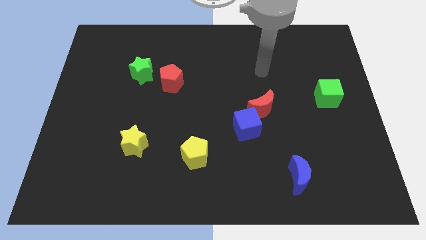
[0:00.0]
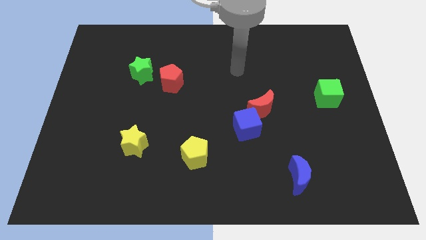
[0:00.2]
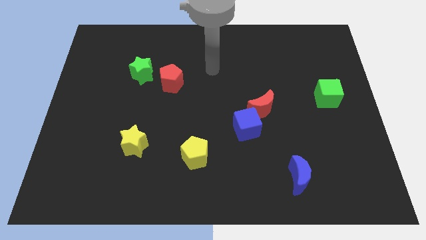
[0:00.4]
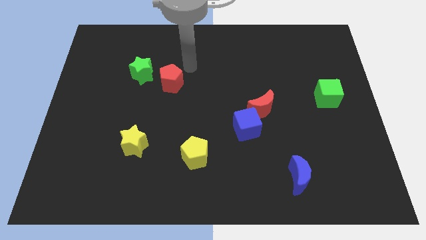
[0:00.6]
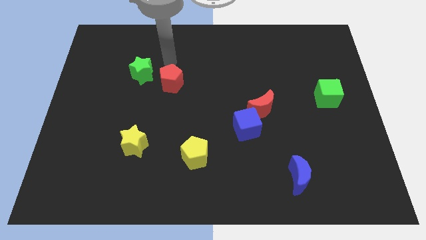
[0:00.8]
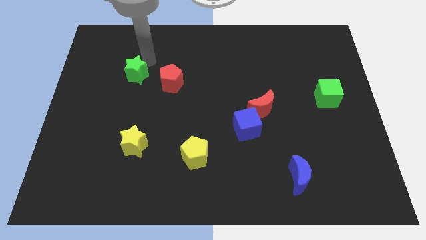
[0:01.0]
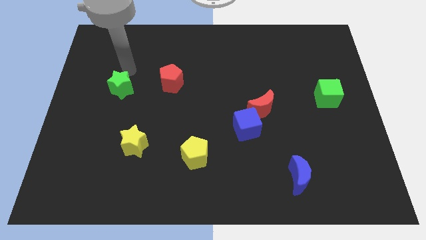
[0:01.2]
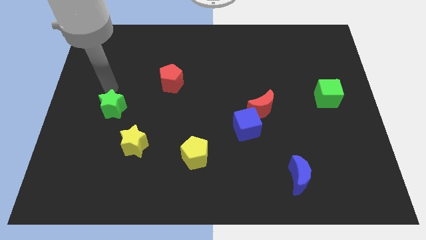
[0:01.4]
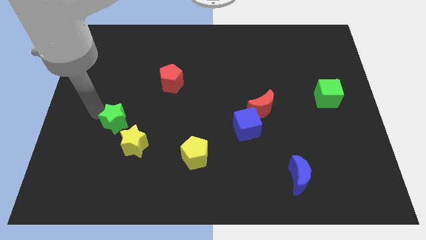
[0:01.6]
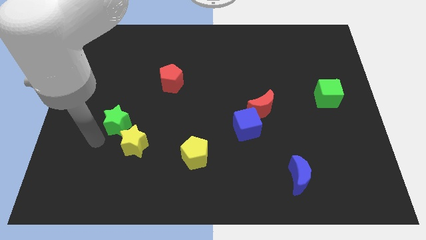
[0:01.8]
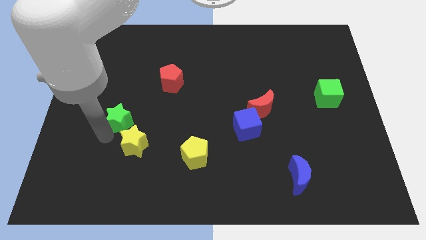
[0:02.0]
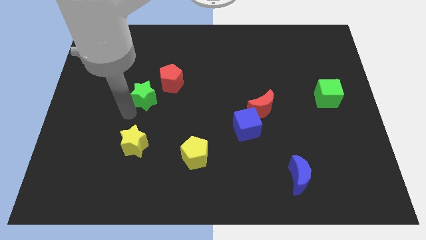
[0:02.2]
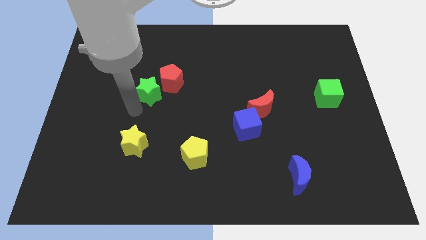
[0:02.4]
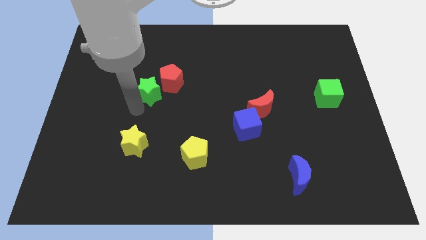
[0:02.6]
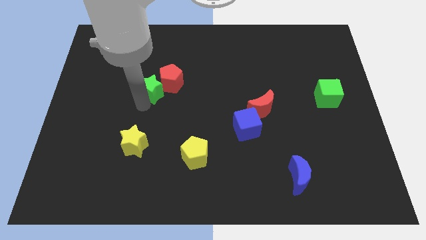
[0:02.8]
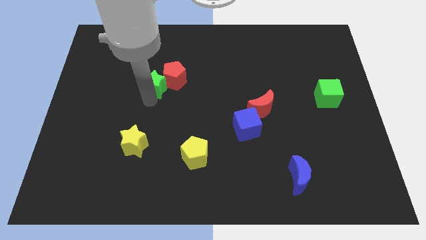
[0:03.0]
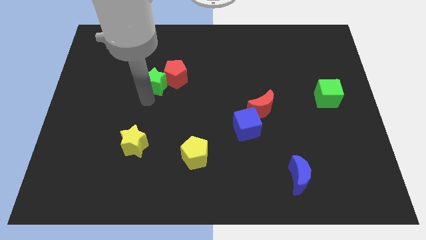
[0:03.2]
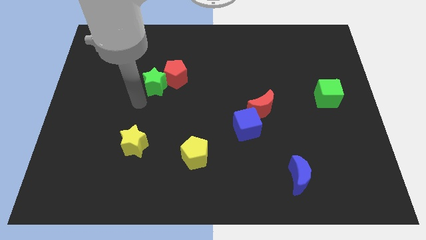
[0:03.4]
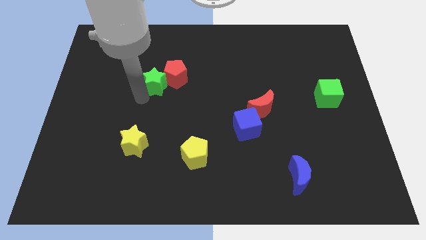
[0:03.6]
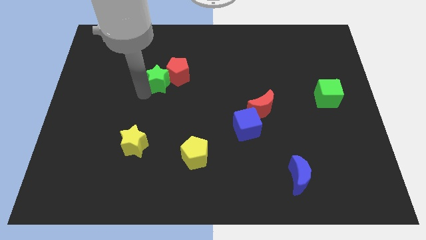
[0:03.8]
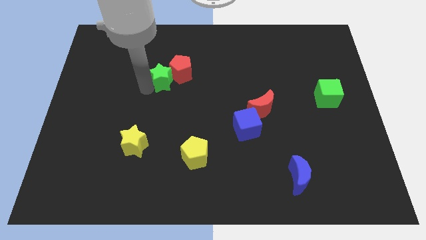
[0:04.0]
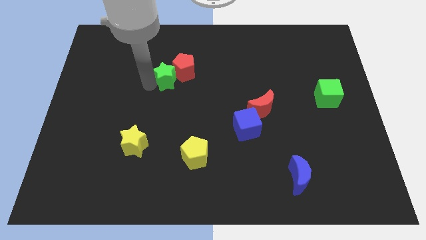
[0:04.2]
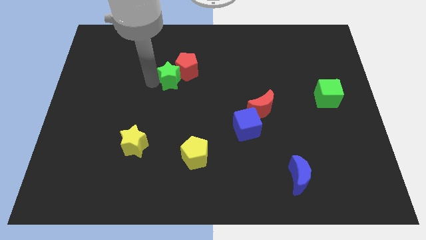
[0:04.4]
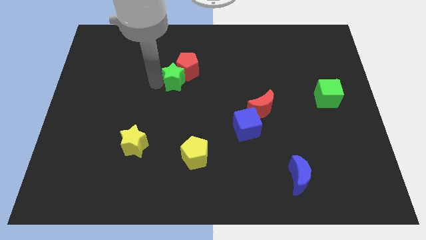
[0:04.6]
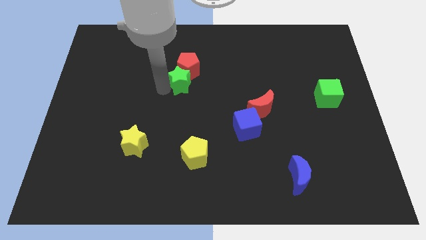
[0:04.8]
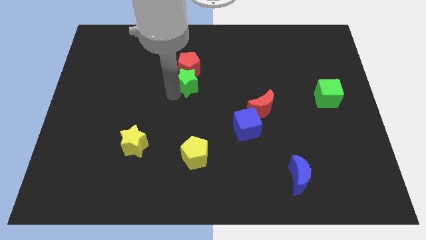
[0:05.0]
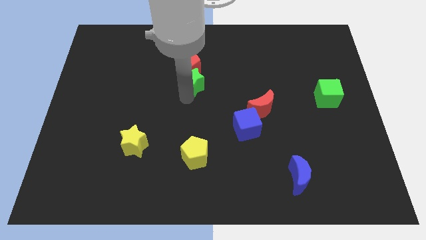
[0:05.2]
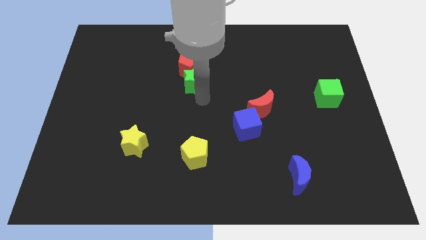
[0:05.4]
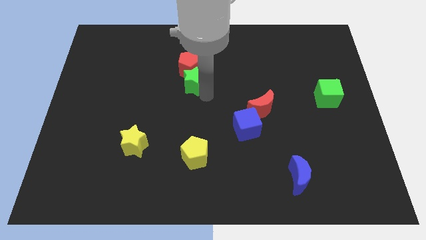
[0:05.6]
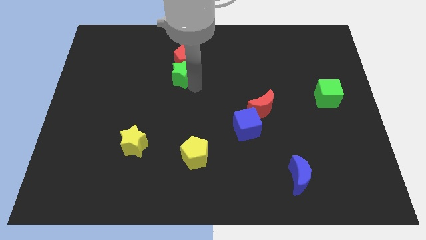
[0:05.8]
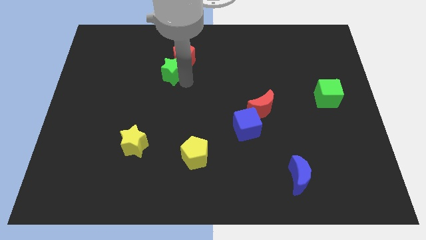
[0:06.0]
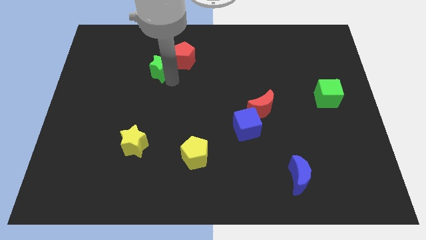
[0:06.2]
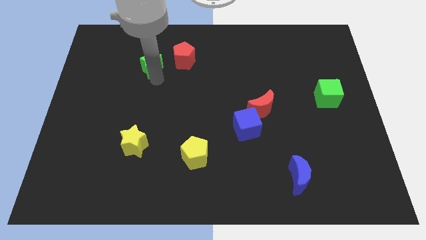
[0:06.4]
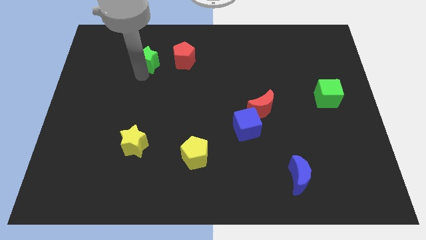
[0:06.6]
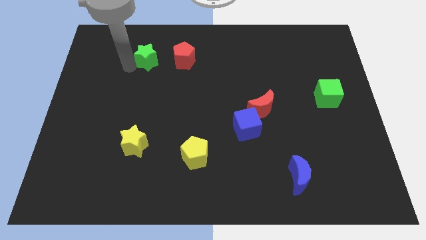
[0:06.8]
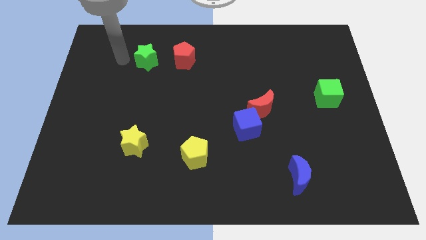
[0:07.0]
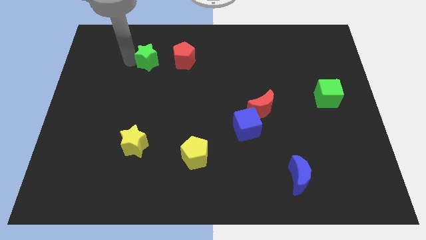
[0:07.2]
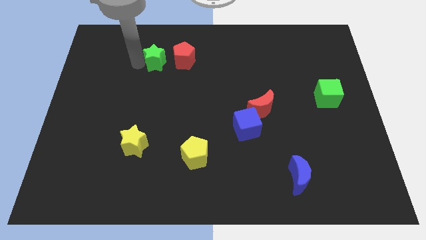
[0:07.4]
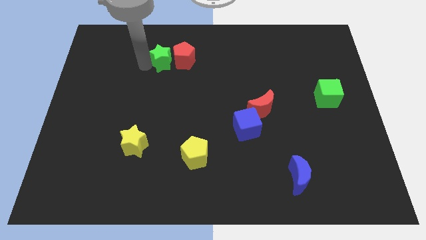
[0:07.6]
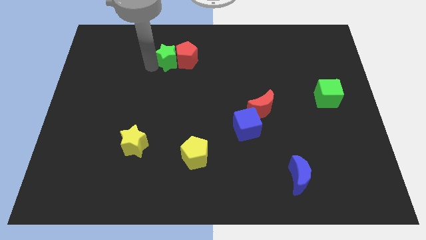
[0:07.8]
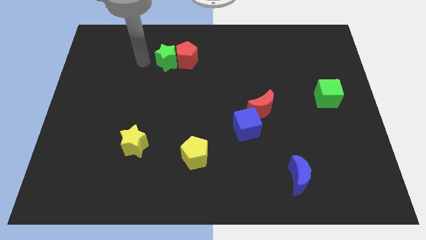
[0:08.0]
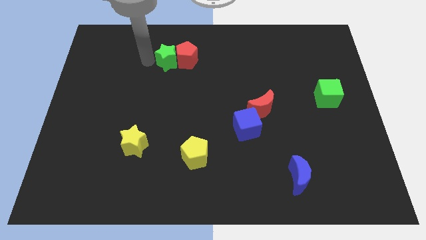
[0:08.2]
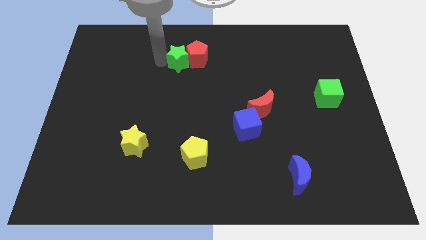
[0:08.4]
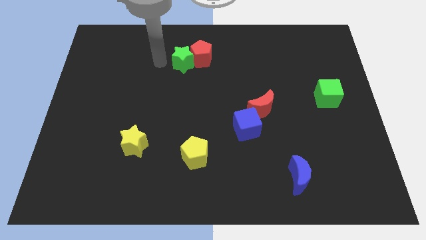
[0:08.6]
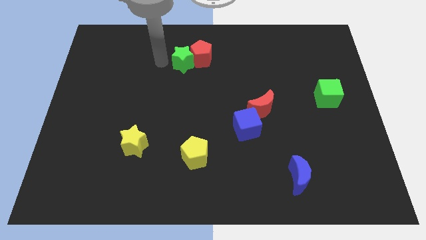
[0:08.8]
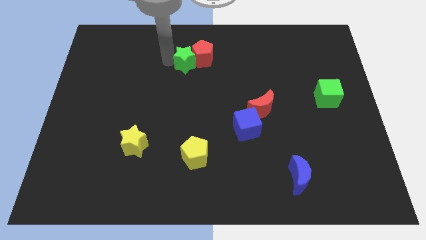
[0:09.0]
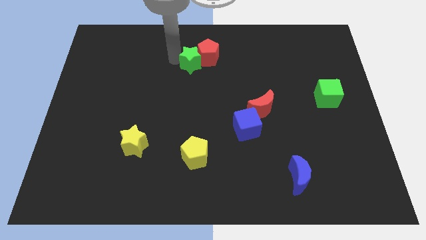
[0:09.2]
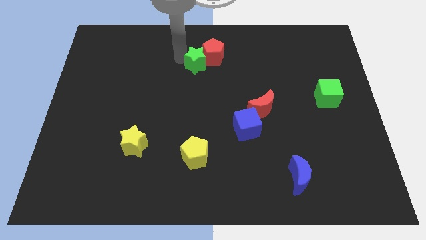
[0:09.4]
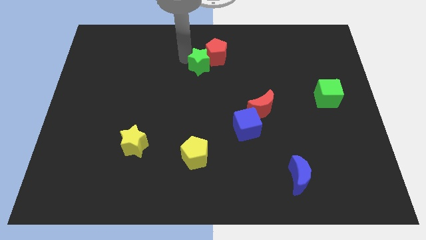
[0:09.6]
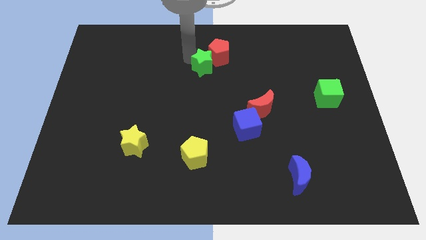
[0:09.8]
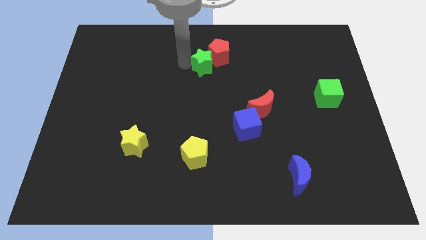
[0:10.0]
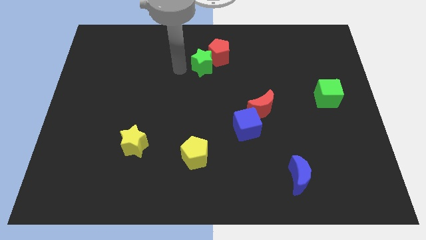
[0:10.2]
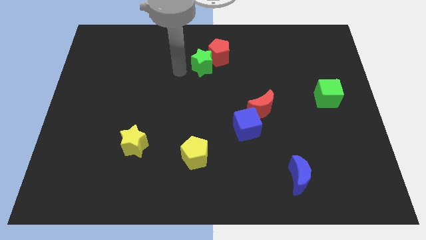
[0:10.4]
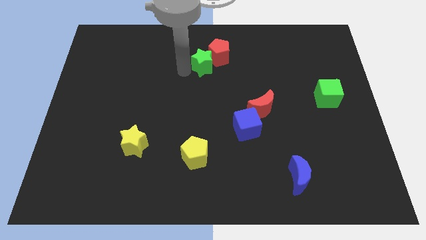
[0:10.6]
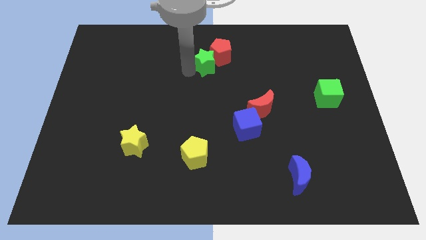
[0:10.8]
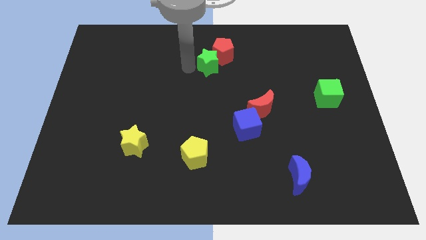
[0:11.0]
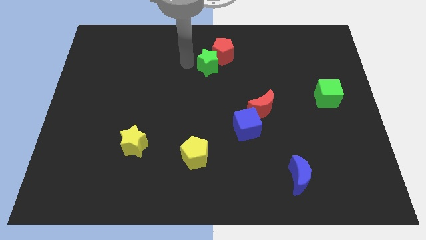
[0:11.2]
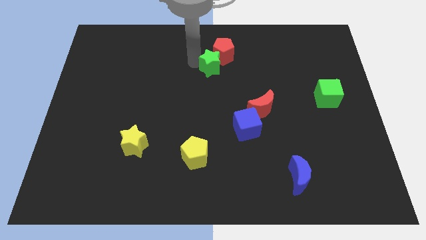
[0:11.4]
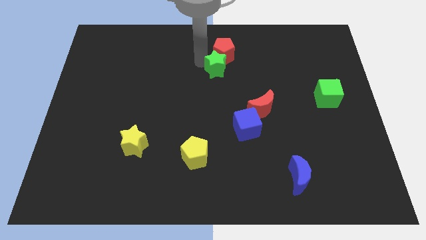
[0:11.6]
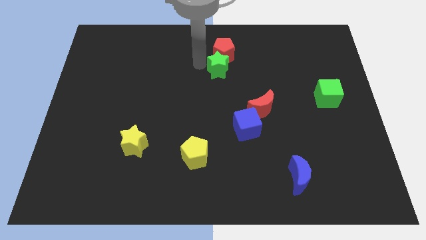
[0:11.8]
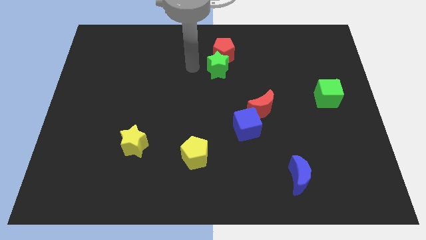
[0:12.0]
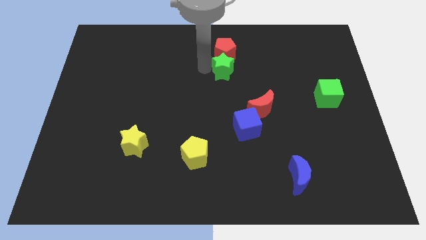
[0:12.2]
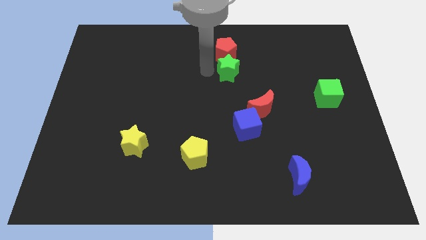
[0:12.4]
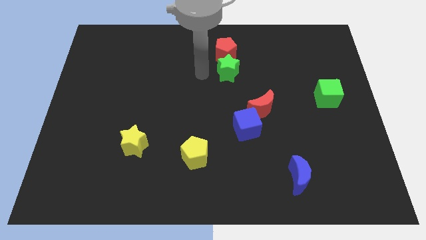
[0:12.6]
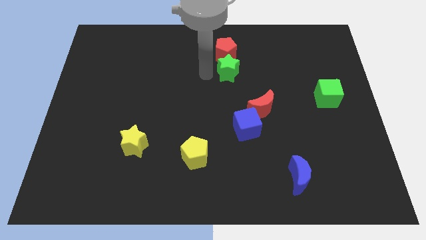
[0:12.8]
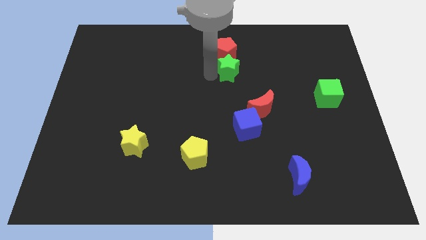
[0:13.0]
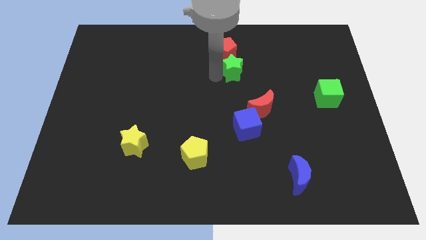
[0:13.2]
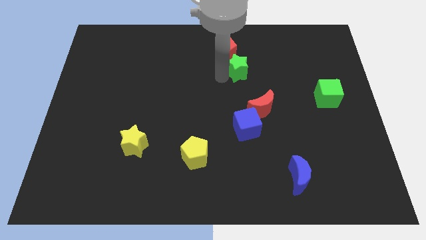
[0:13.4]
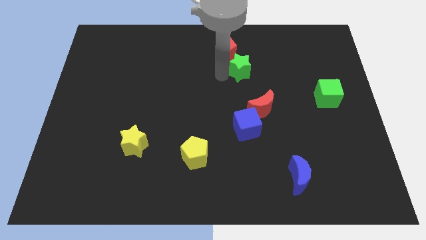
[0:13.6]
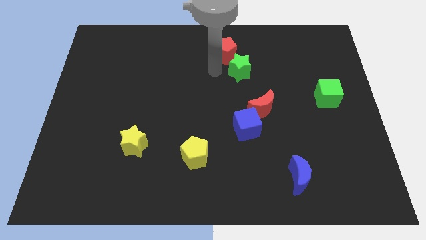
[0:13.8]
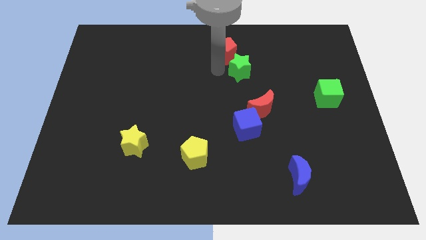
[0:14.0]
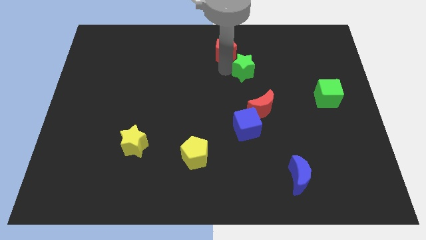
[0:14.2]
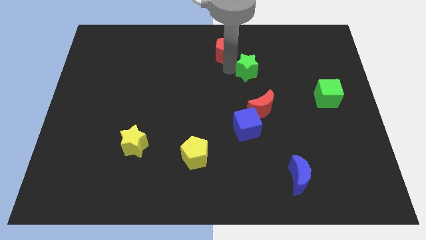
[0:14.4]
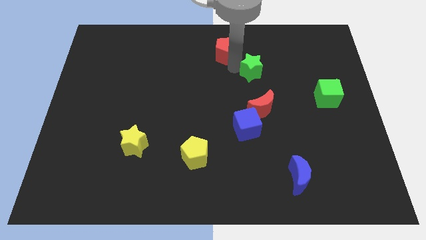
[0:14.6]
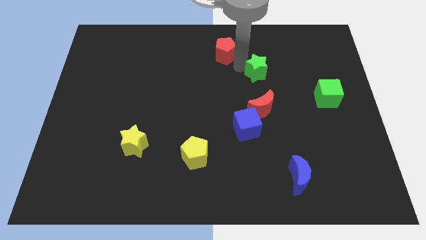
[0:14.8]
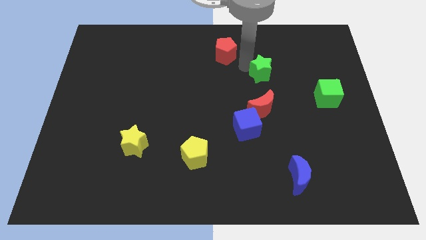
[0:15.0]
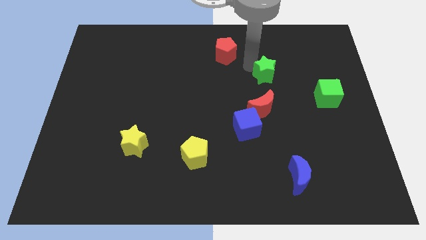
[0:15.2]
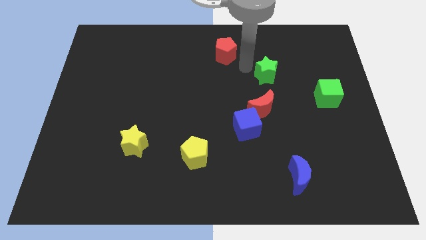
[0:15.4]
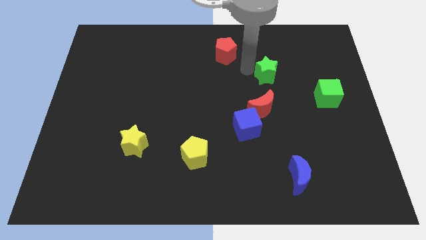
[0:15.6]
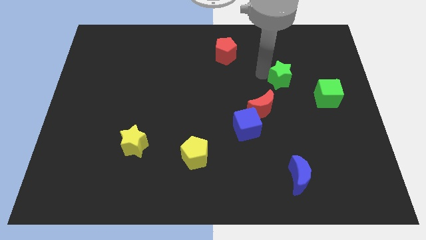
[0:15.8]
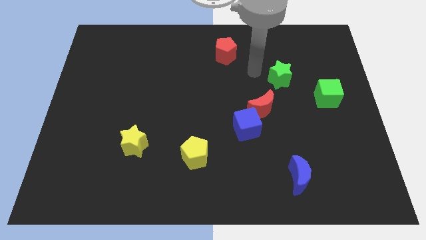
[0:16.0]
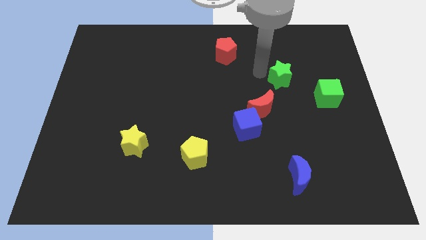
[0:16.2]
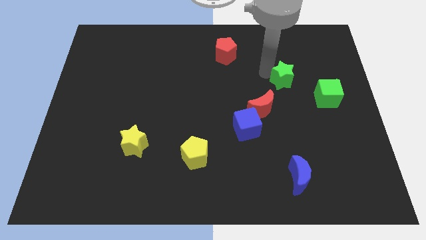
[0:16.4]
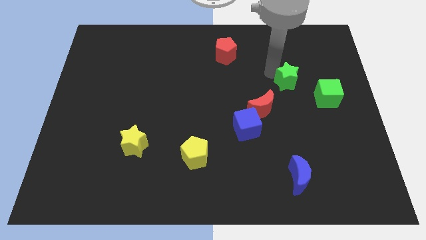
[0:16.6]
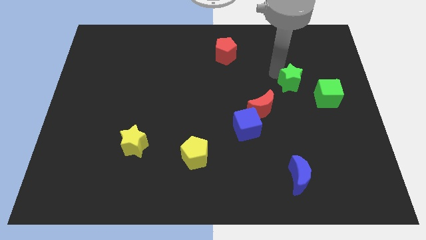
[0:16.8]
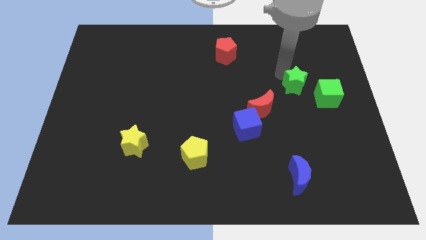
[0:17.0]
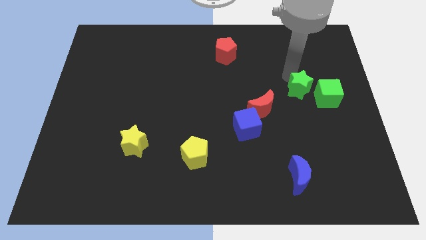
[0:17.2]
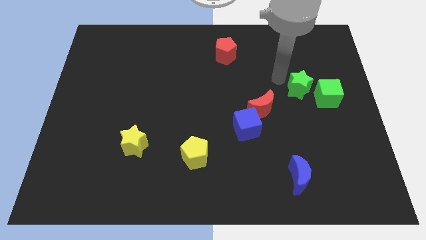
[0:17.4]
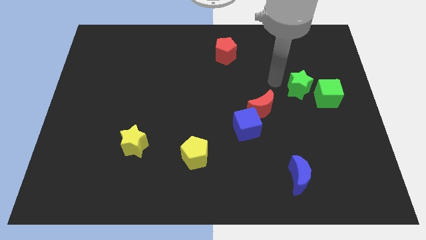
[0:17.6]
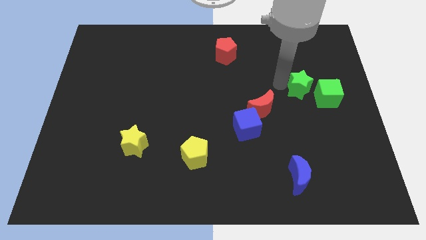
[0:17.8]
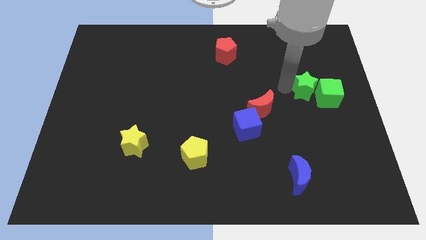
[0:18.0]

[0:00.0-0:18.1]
move the green star next to the green cube
